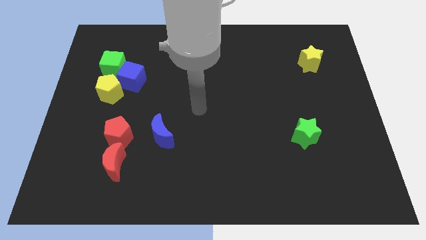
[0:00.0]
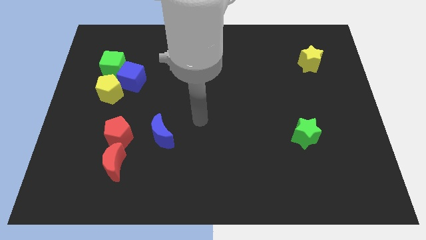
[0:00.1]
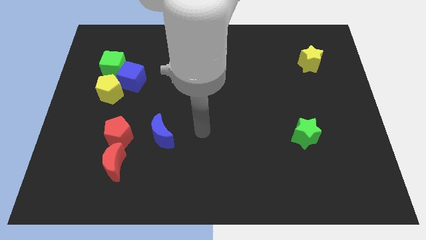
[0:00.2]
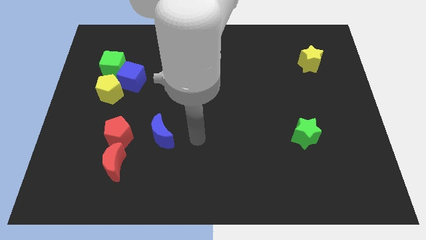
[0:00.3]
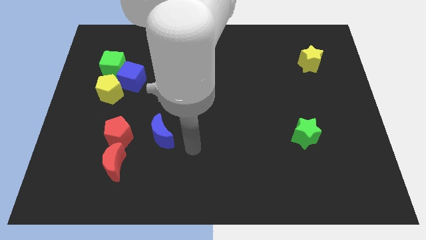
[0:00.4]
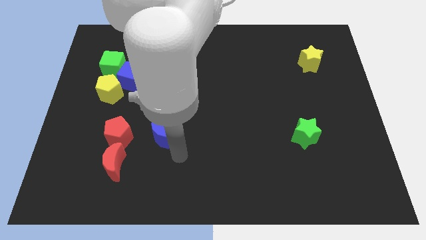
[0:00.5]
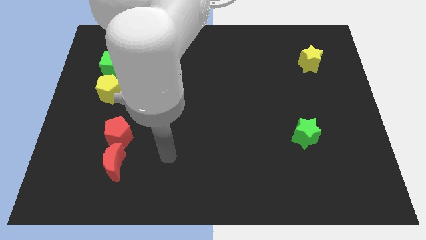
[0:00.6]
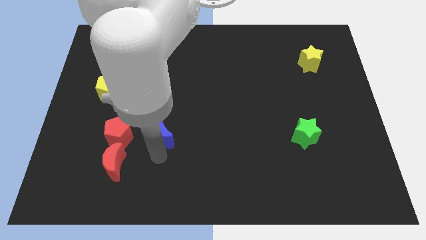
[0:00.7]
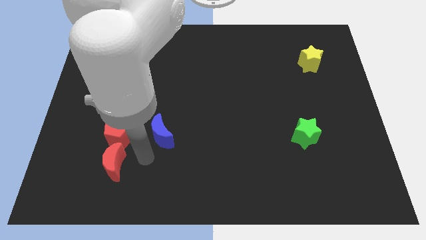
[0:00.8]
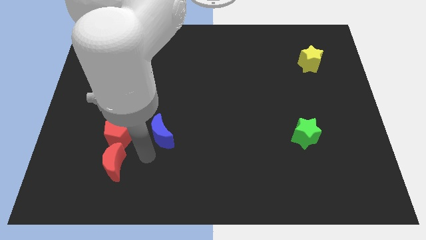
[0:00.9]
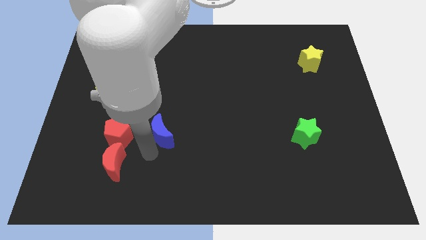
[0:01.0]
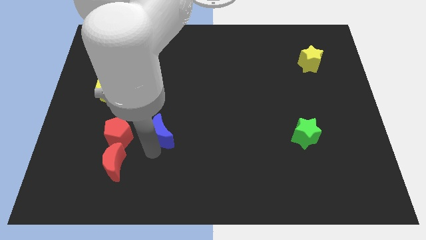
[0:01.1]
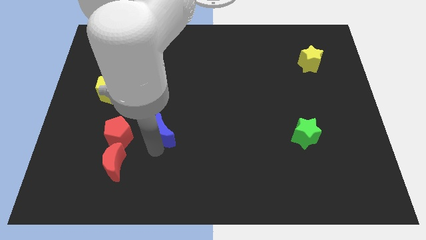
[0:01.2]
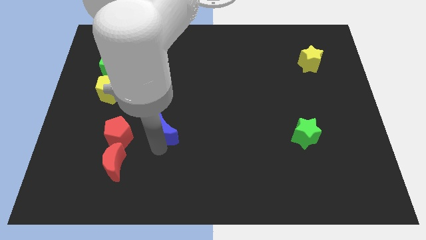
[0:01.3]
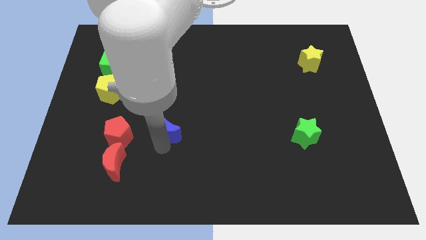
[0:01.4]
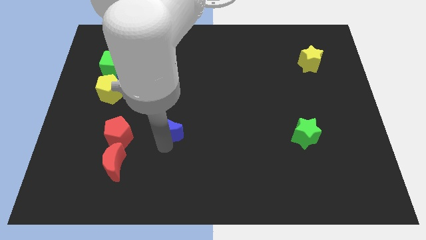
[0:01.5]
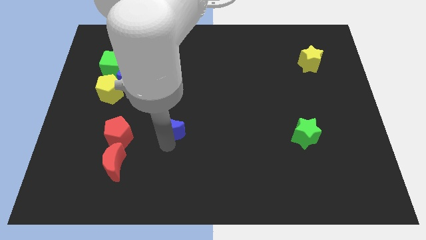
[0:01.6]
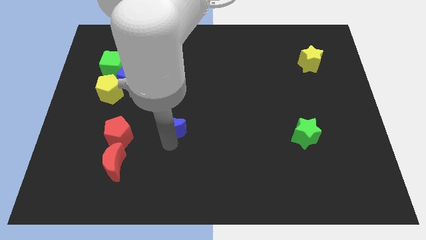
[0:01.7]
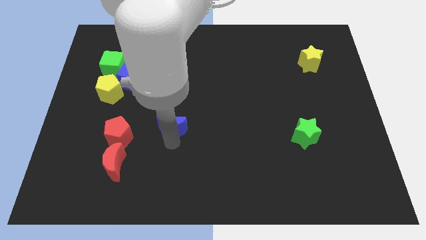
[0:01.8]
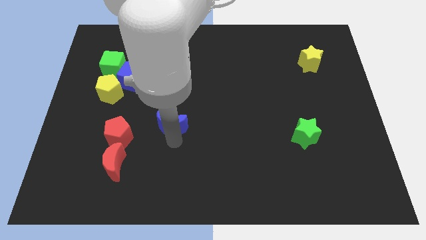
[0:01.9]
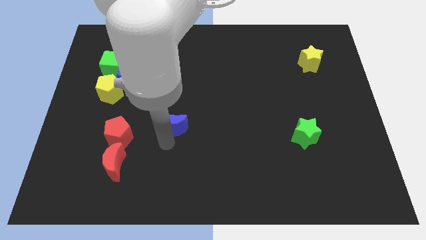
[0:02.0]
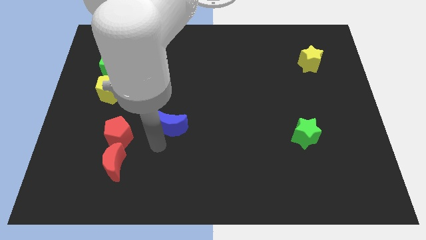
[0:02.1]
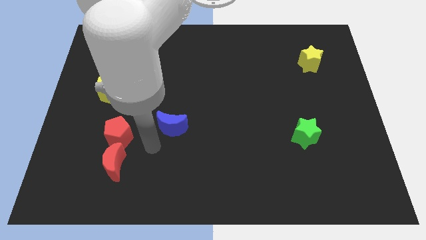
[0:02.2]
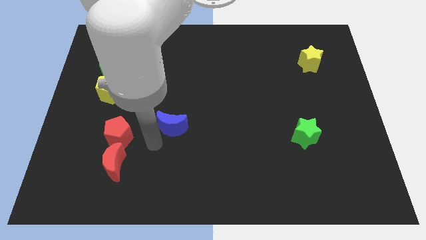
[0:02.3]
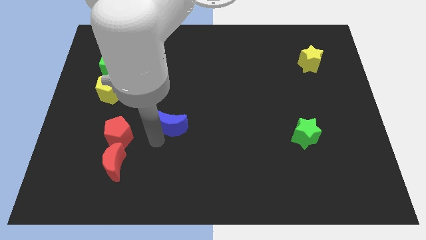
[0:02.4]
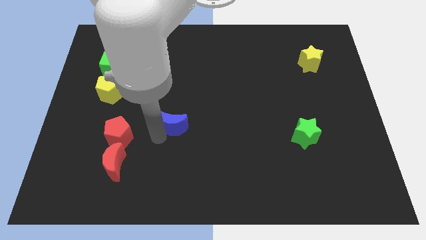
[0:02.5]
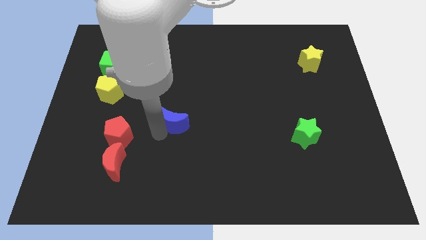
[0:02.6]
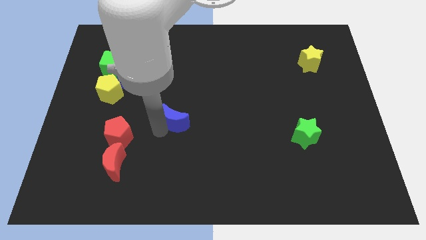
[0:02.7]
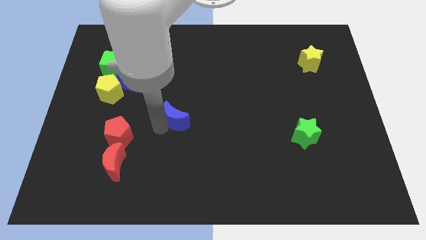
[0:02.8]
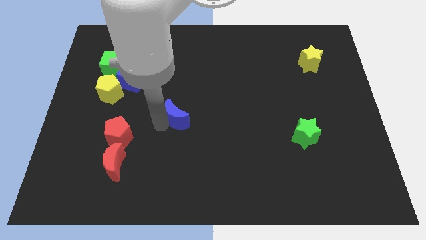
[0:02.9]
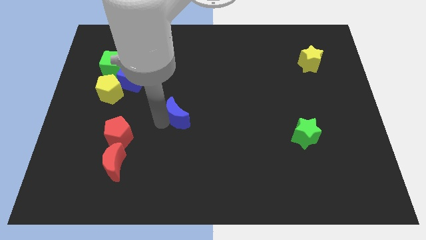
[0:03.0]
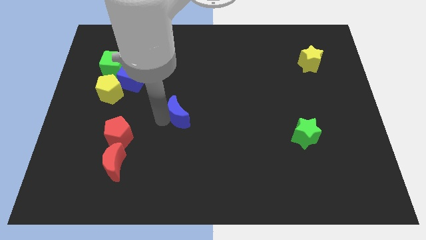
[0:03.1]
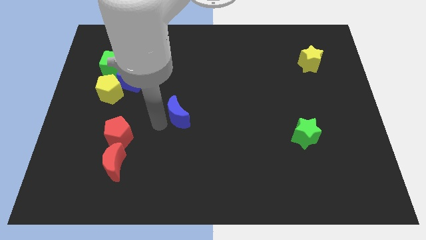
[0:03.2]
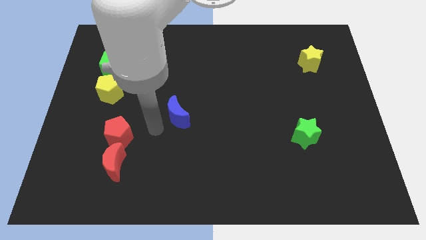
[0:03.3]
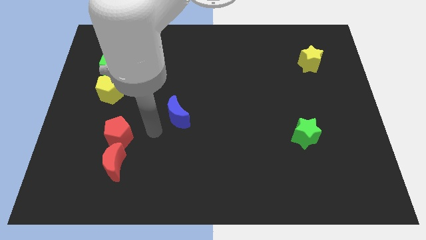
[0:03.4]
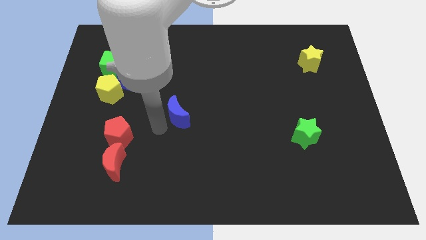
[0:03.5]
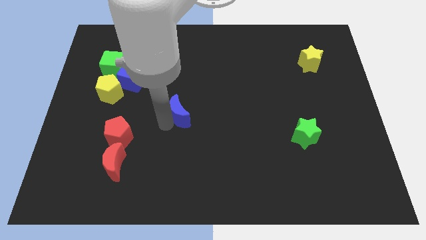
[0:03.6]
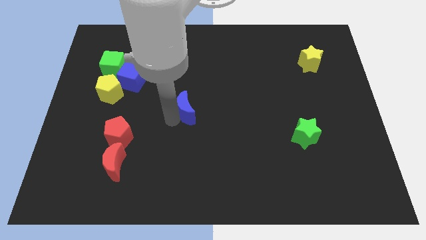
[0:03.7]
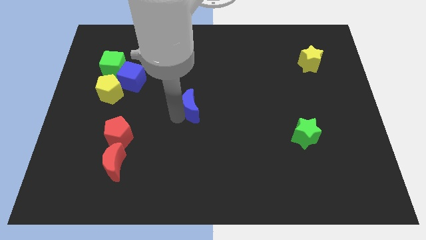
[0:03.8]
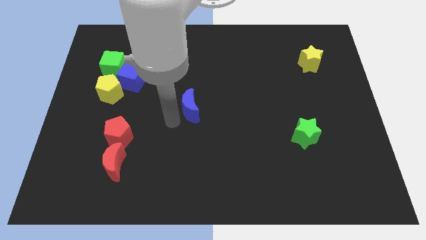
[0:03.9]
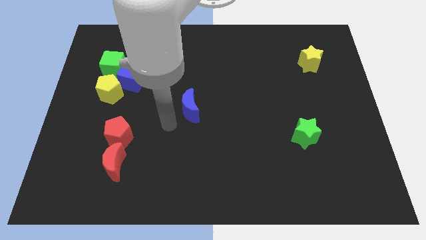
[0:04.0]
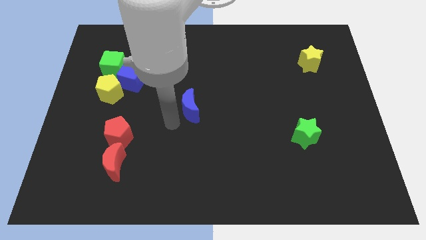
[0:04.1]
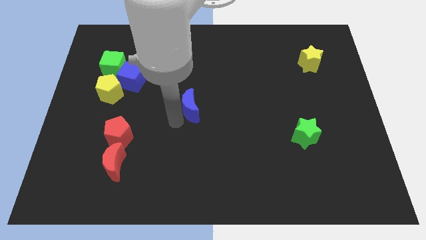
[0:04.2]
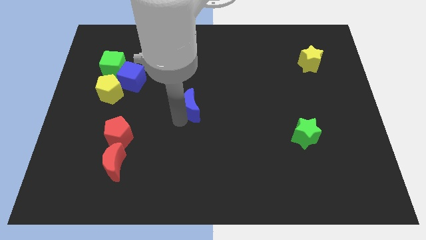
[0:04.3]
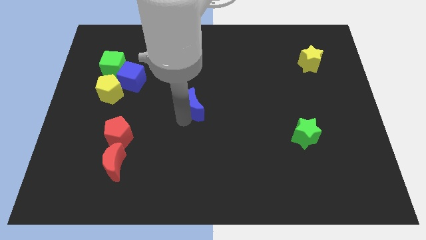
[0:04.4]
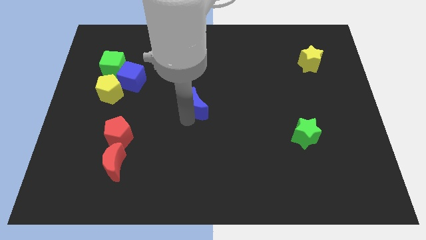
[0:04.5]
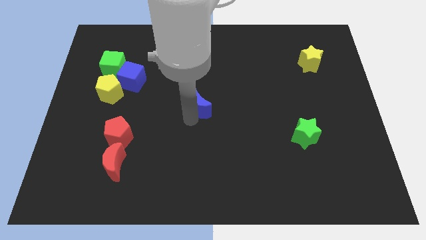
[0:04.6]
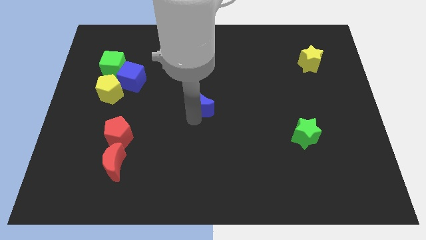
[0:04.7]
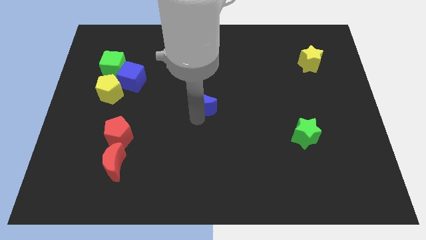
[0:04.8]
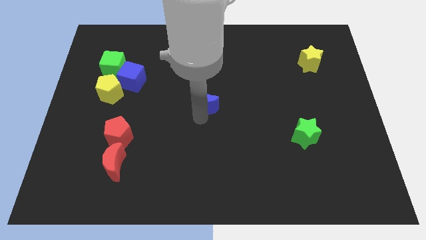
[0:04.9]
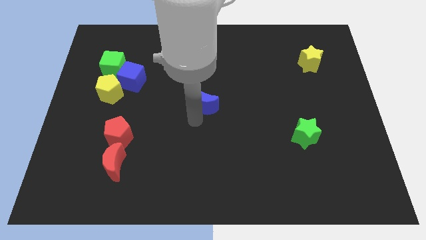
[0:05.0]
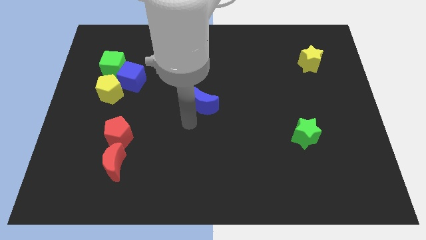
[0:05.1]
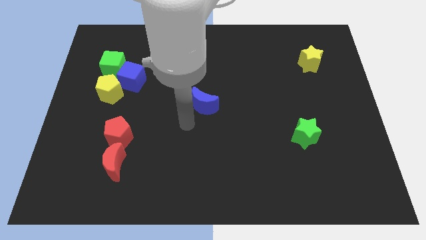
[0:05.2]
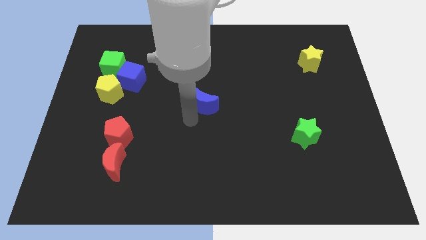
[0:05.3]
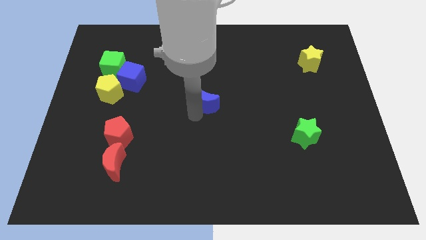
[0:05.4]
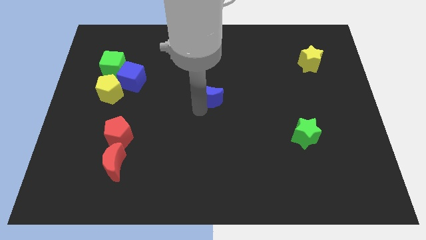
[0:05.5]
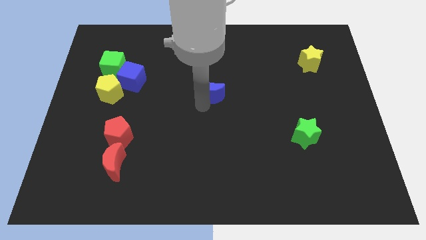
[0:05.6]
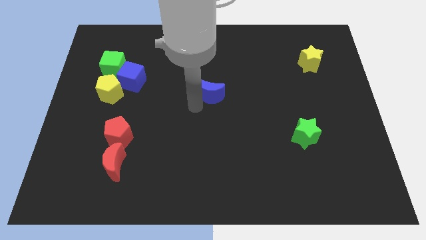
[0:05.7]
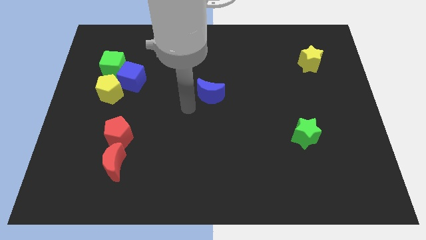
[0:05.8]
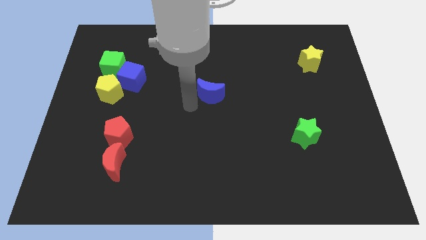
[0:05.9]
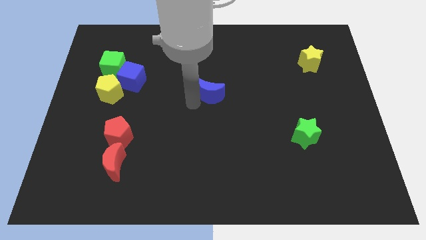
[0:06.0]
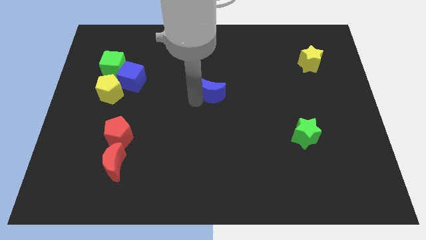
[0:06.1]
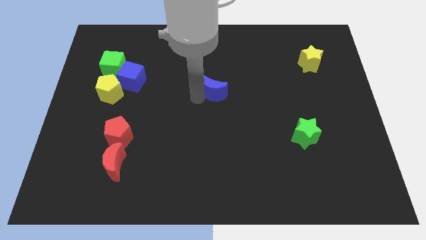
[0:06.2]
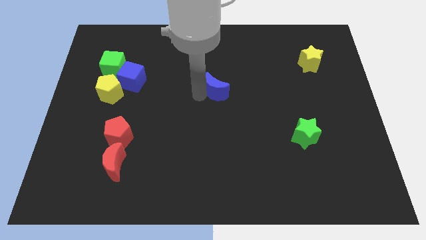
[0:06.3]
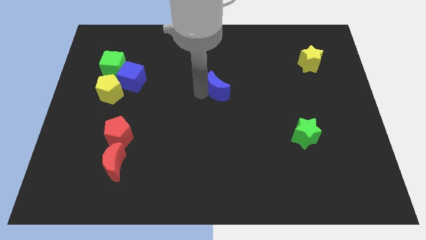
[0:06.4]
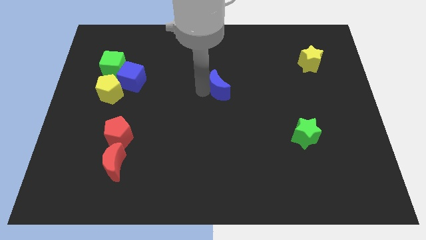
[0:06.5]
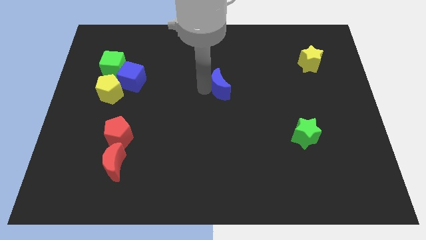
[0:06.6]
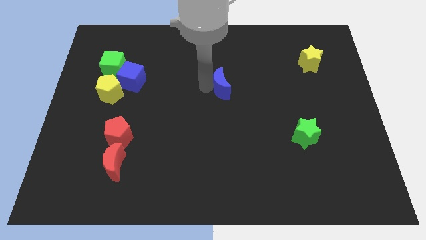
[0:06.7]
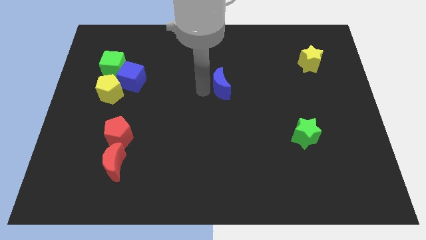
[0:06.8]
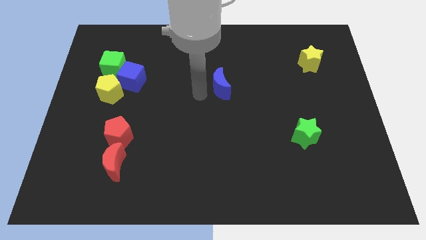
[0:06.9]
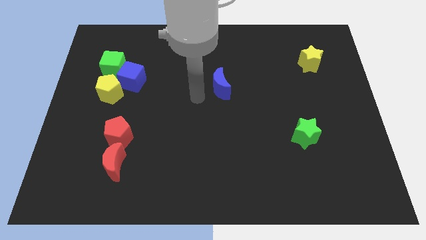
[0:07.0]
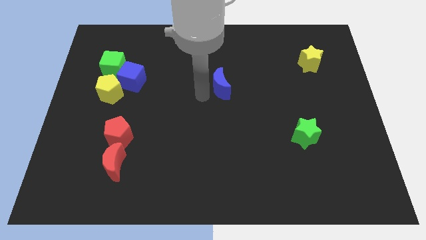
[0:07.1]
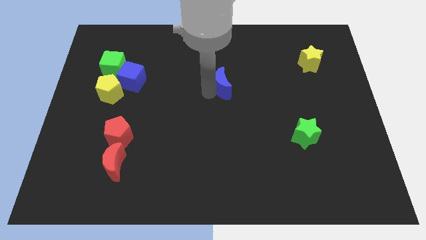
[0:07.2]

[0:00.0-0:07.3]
push the blue moon upwards and to the right

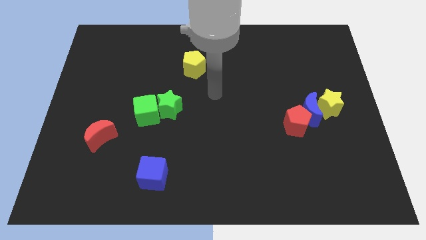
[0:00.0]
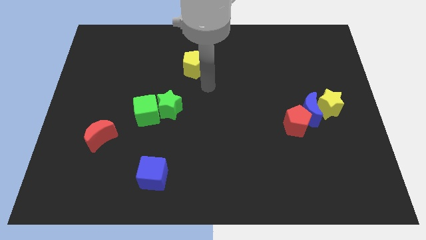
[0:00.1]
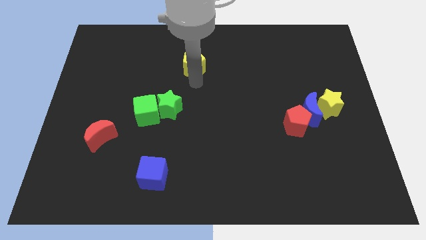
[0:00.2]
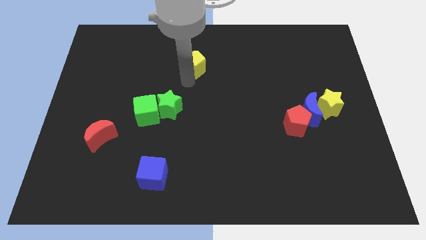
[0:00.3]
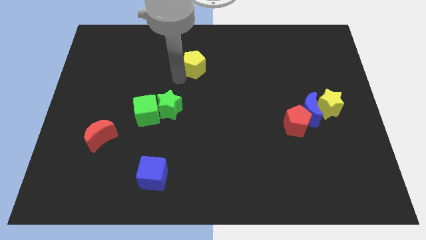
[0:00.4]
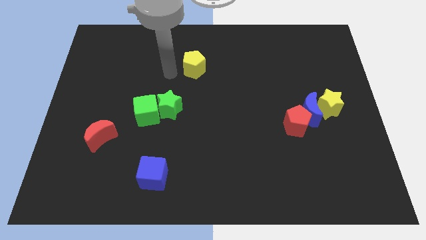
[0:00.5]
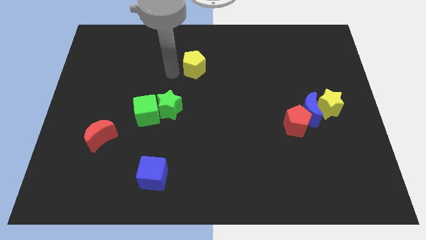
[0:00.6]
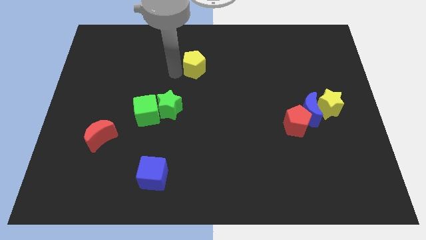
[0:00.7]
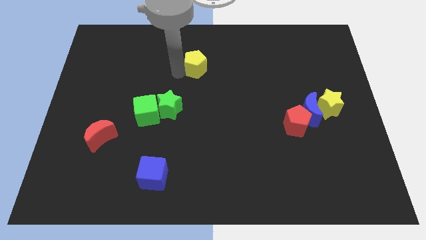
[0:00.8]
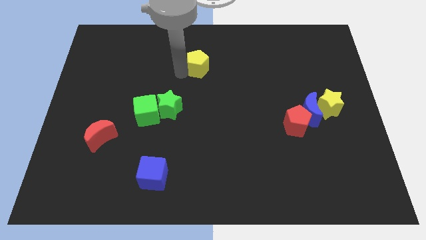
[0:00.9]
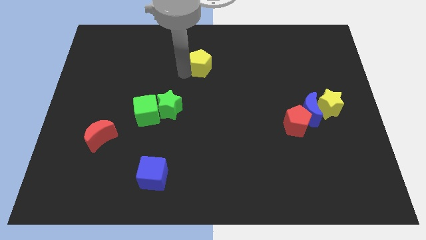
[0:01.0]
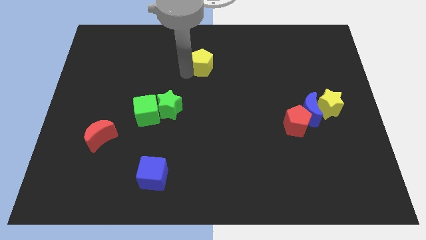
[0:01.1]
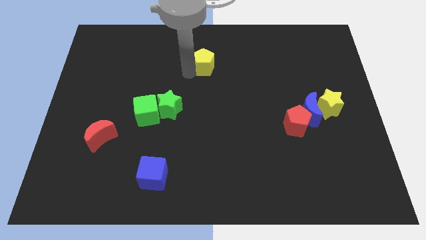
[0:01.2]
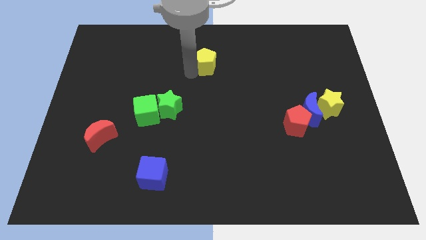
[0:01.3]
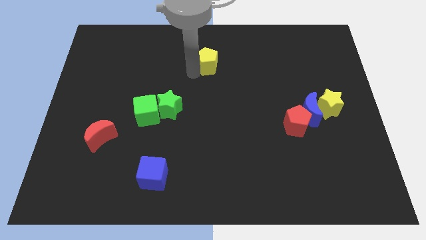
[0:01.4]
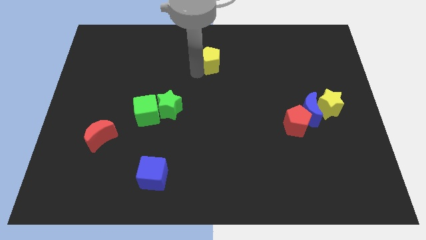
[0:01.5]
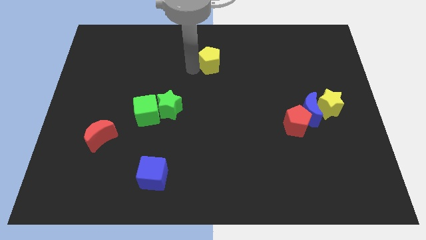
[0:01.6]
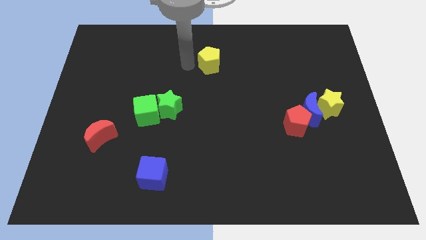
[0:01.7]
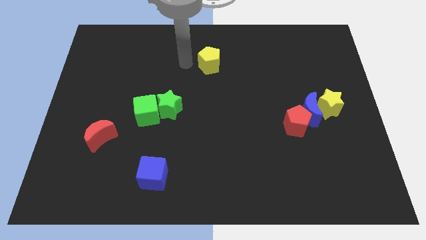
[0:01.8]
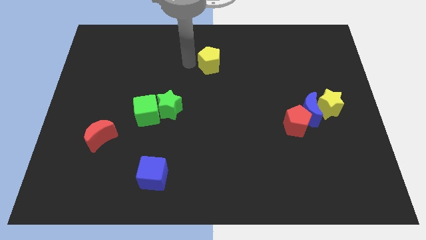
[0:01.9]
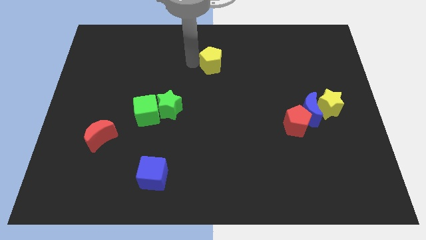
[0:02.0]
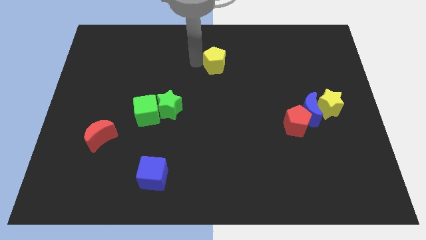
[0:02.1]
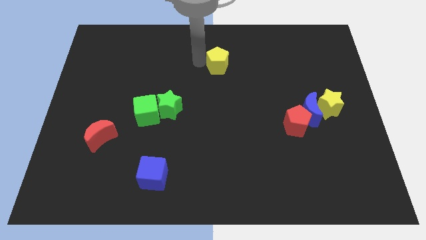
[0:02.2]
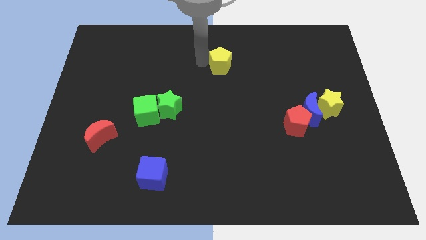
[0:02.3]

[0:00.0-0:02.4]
move the yellow pentagon slightly to the right
